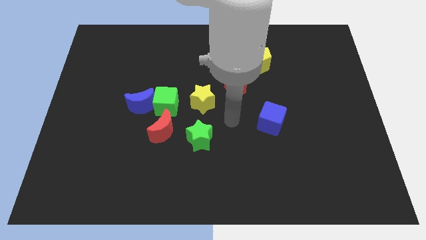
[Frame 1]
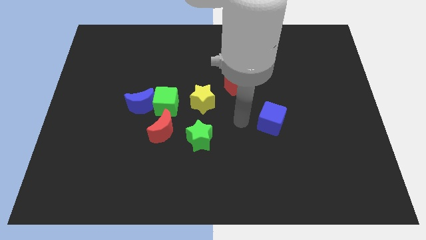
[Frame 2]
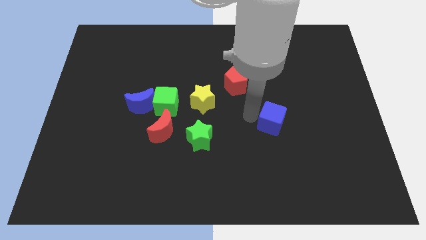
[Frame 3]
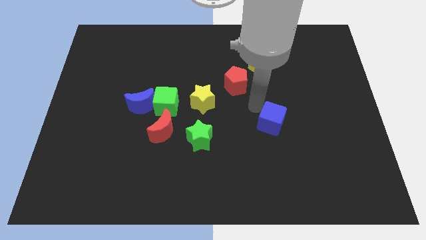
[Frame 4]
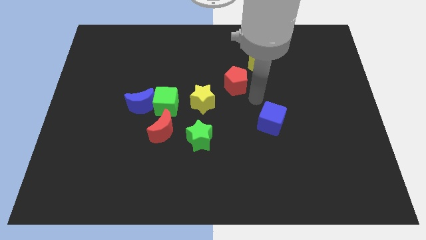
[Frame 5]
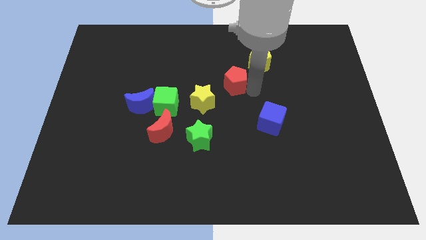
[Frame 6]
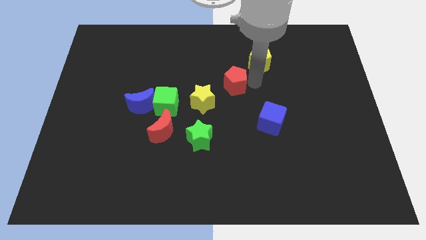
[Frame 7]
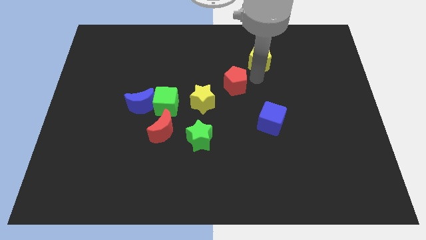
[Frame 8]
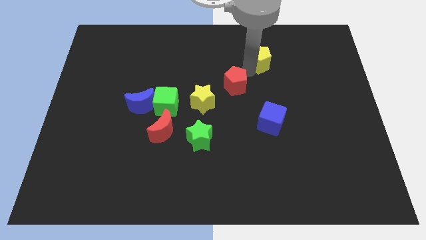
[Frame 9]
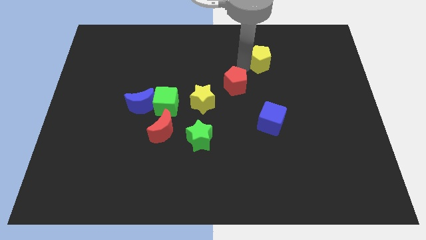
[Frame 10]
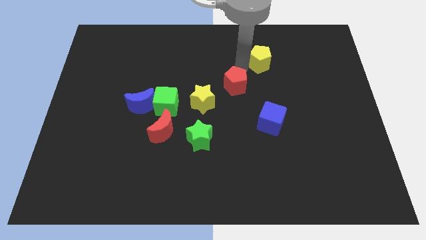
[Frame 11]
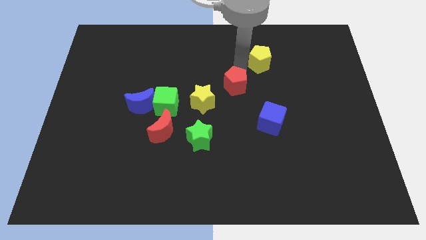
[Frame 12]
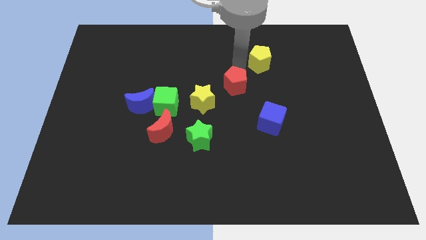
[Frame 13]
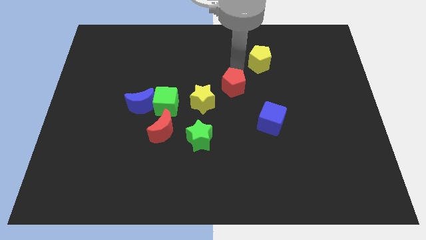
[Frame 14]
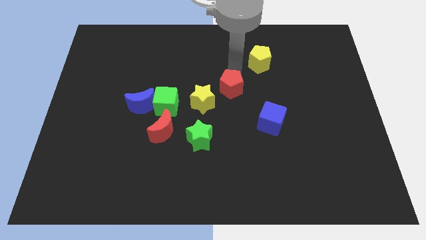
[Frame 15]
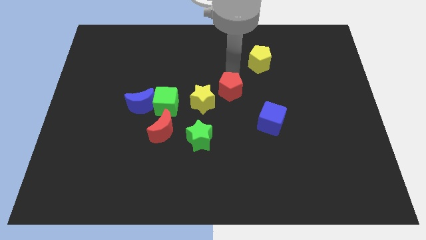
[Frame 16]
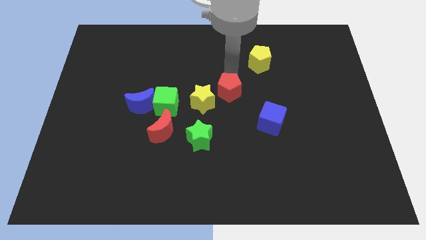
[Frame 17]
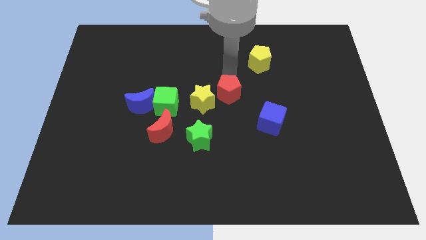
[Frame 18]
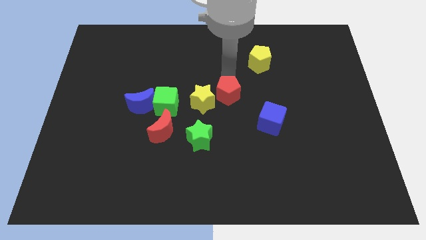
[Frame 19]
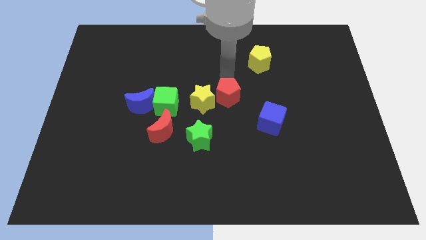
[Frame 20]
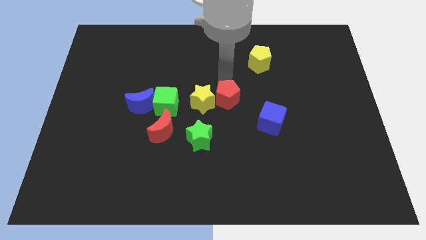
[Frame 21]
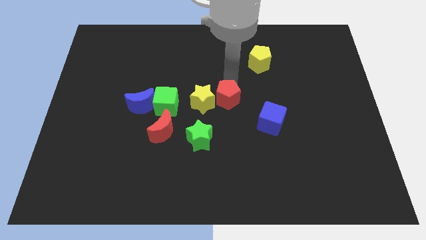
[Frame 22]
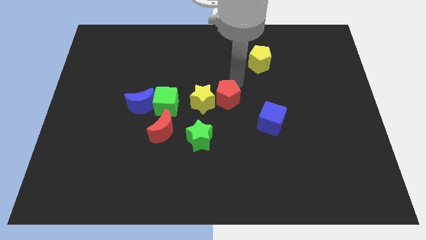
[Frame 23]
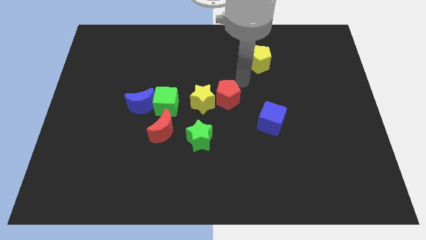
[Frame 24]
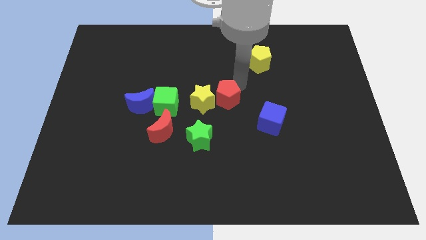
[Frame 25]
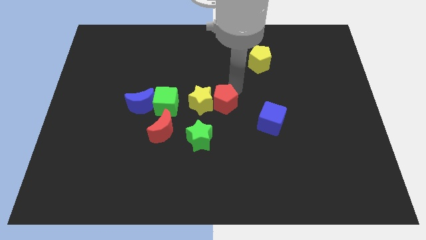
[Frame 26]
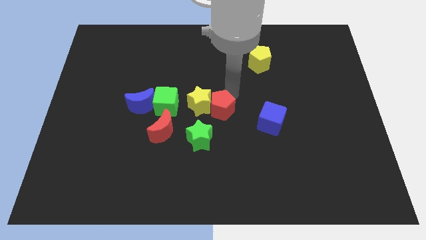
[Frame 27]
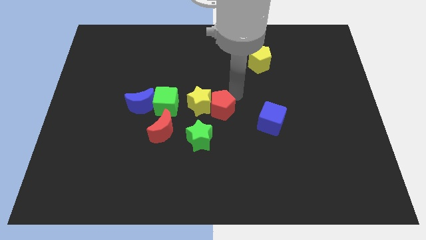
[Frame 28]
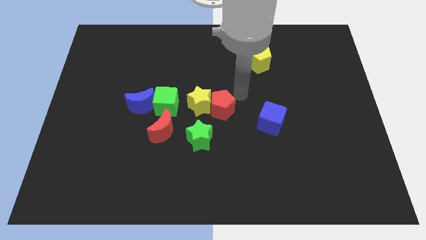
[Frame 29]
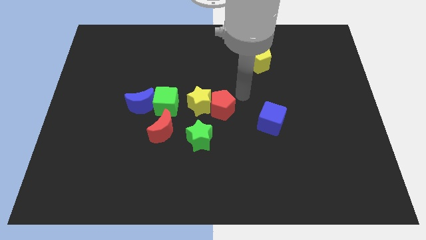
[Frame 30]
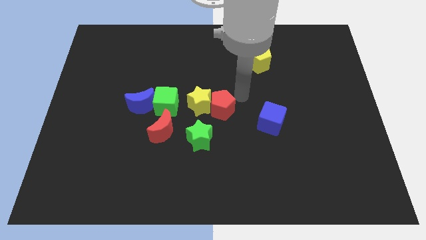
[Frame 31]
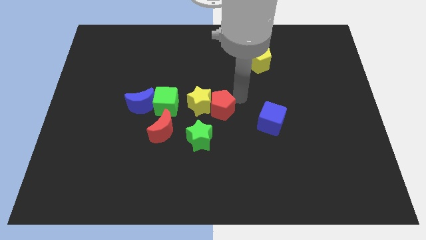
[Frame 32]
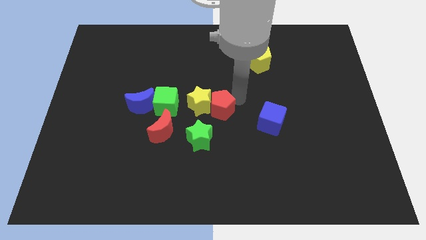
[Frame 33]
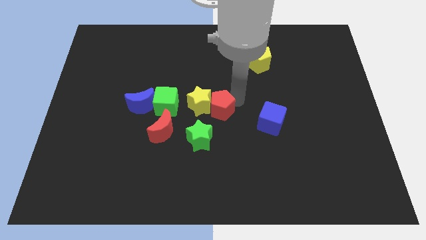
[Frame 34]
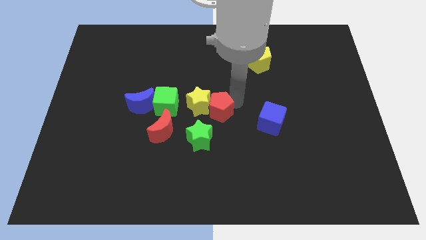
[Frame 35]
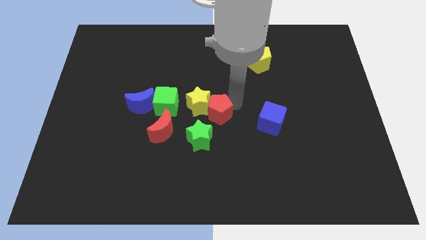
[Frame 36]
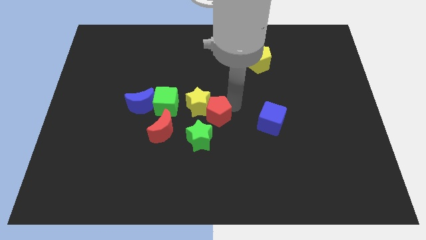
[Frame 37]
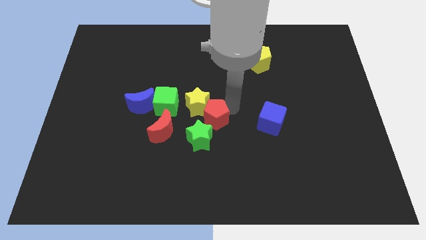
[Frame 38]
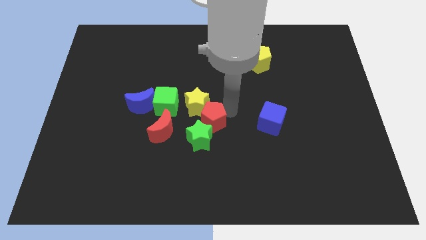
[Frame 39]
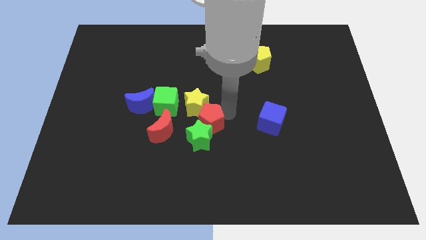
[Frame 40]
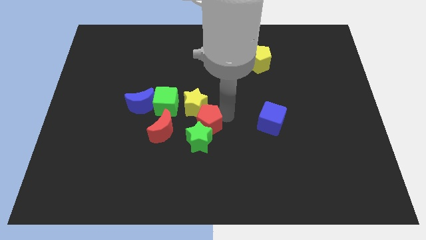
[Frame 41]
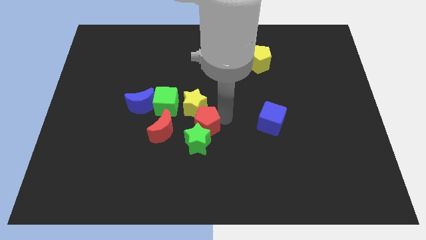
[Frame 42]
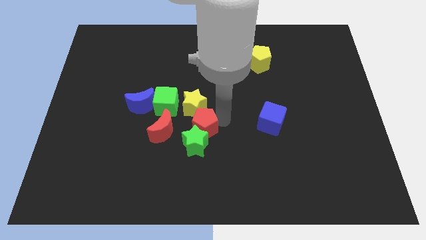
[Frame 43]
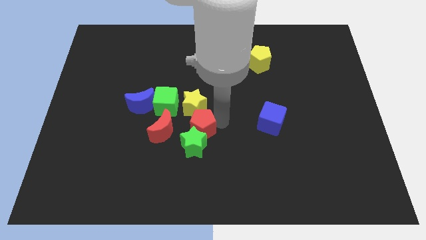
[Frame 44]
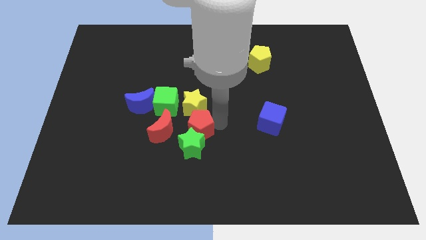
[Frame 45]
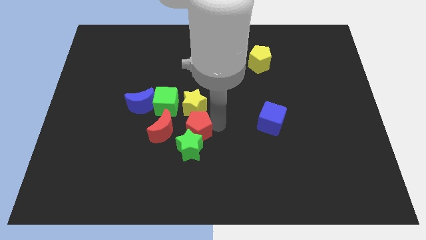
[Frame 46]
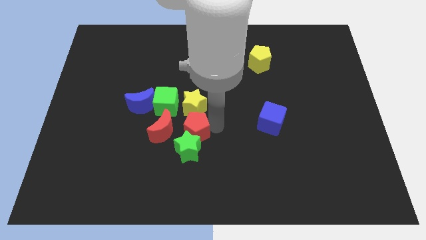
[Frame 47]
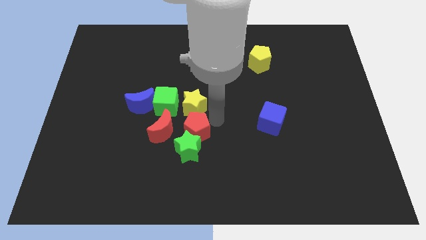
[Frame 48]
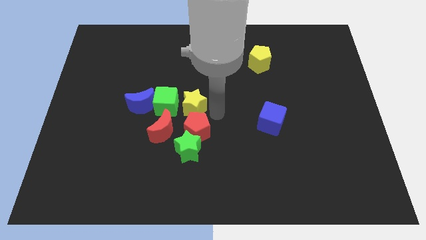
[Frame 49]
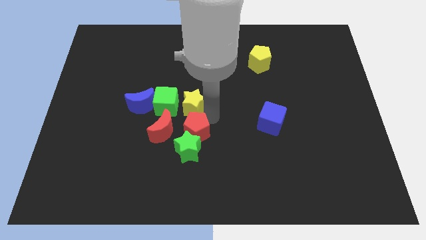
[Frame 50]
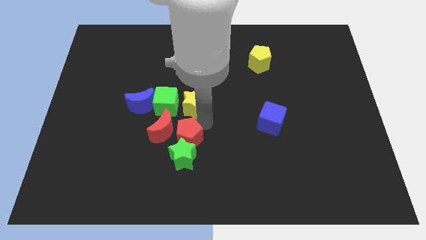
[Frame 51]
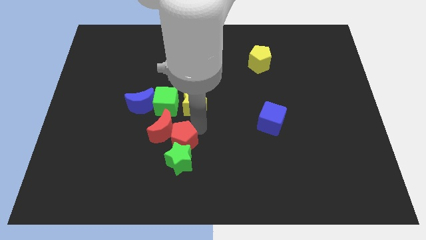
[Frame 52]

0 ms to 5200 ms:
slide the red pentagon down and to the left diagonally

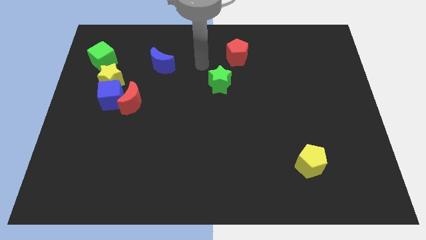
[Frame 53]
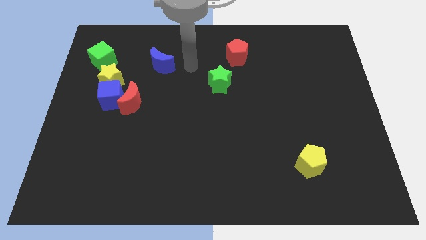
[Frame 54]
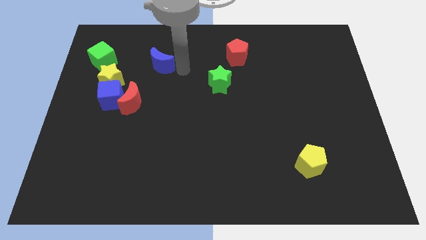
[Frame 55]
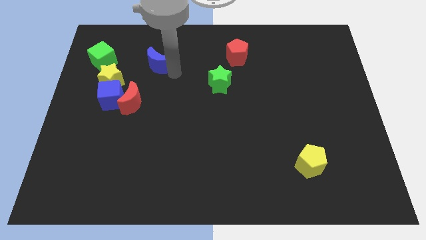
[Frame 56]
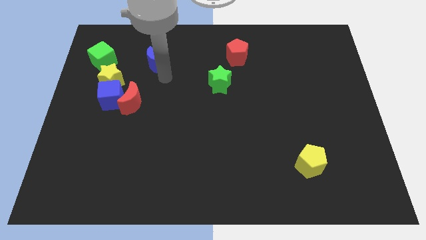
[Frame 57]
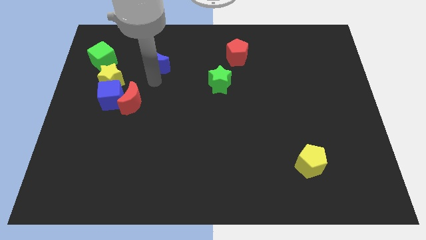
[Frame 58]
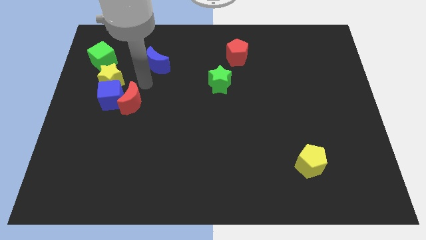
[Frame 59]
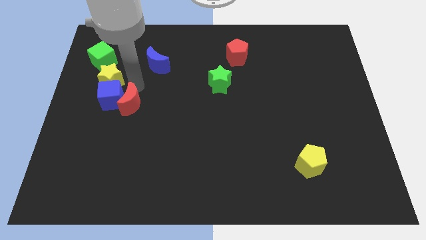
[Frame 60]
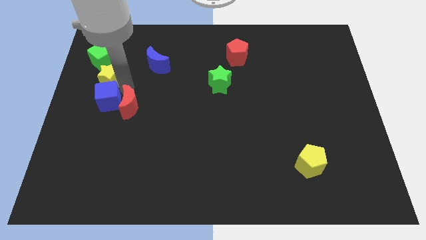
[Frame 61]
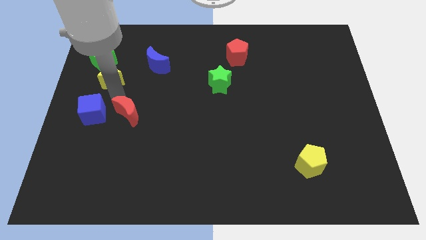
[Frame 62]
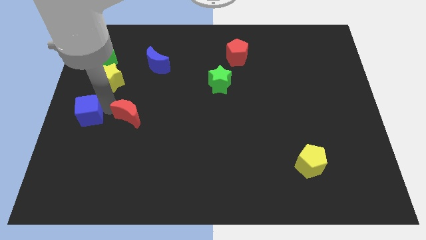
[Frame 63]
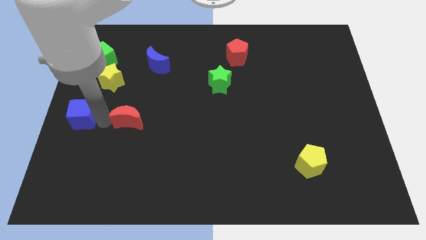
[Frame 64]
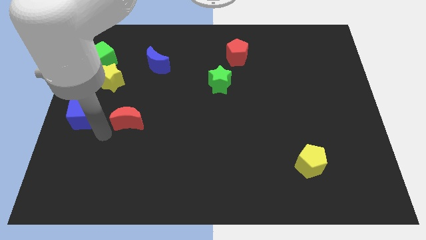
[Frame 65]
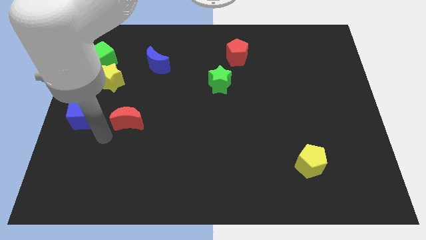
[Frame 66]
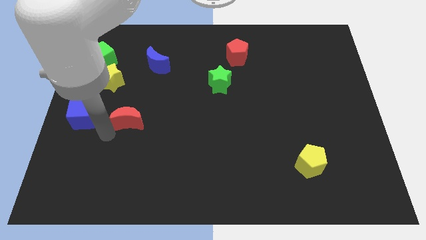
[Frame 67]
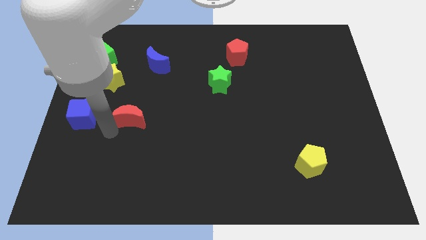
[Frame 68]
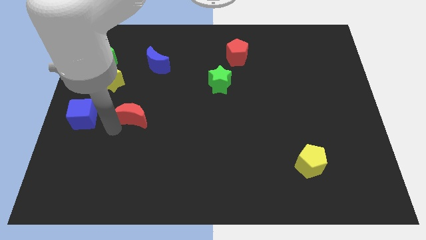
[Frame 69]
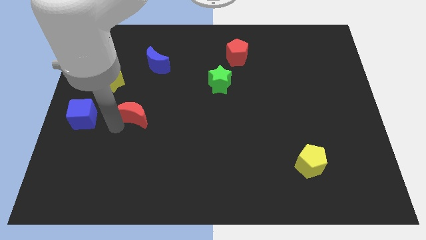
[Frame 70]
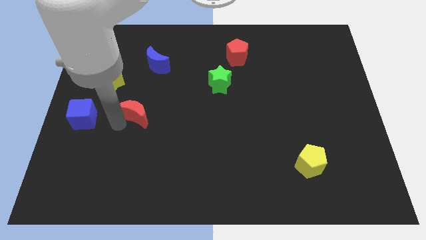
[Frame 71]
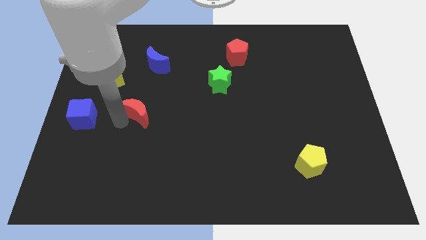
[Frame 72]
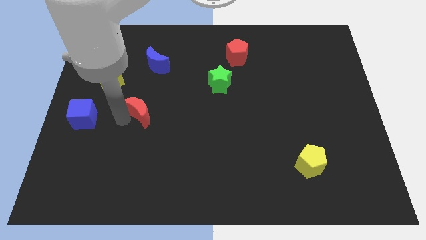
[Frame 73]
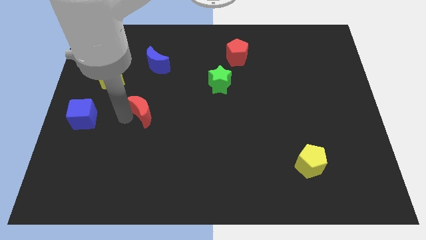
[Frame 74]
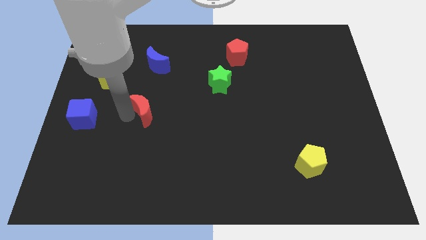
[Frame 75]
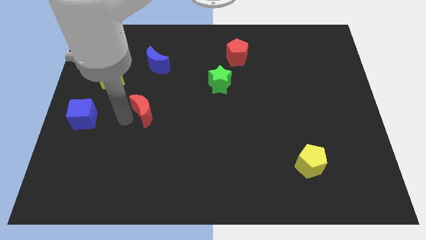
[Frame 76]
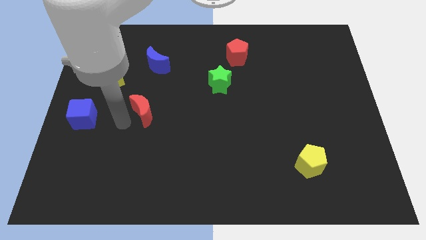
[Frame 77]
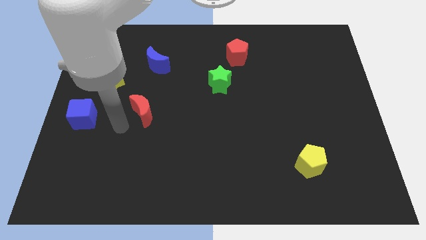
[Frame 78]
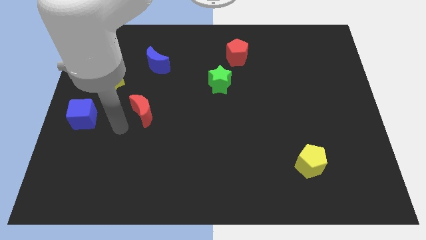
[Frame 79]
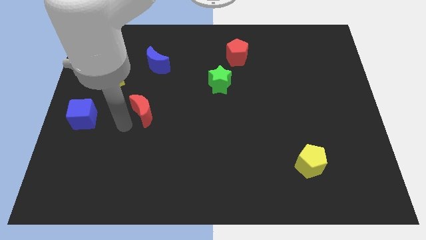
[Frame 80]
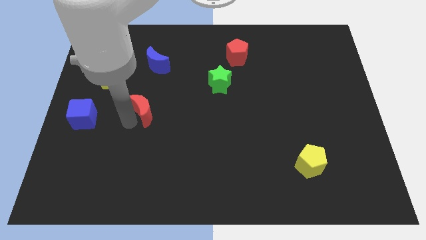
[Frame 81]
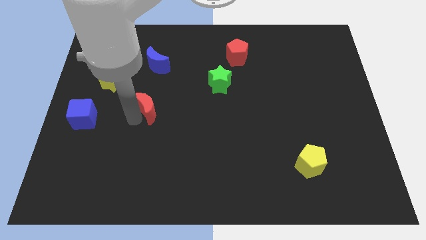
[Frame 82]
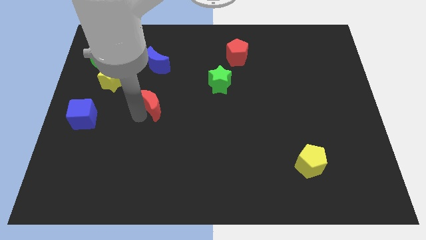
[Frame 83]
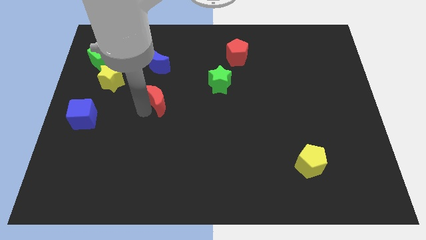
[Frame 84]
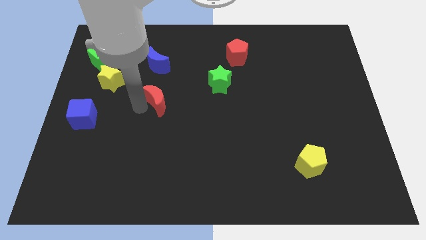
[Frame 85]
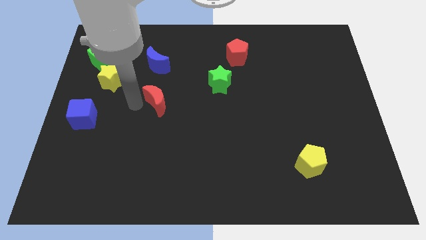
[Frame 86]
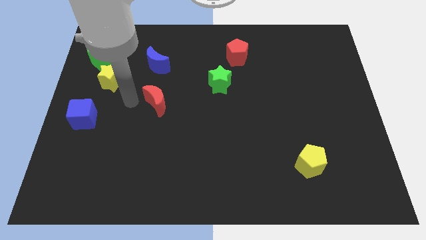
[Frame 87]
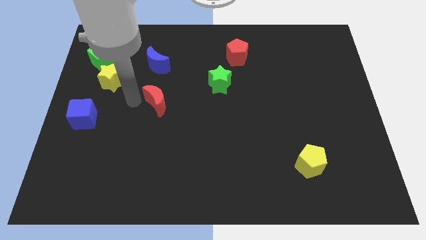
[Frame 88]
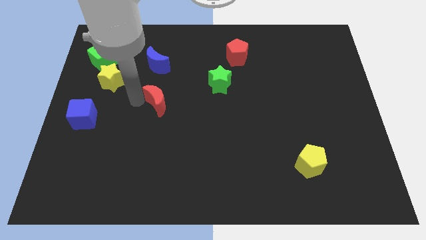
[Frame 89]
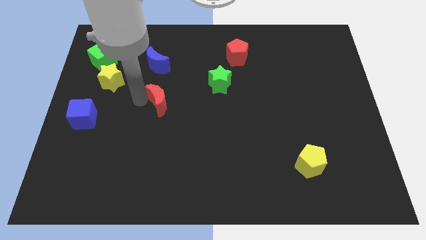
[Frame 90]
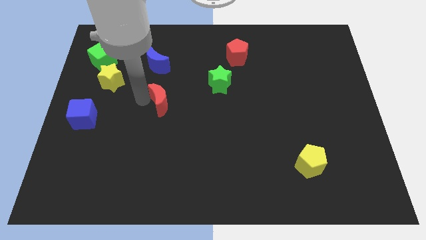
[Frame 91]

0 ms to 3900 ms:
move the red moon right a bit
